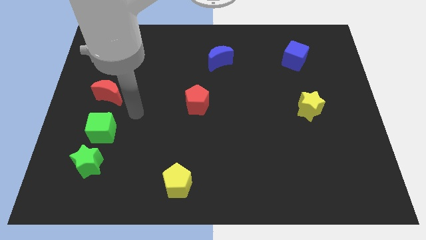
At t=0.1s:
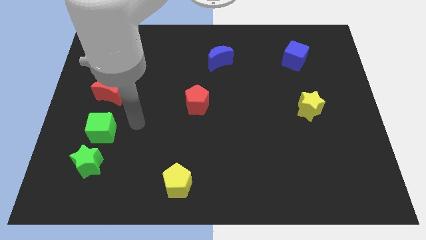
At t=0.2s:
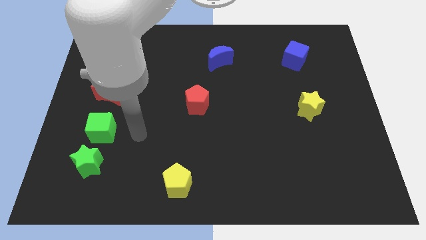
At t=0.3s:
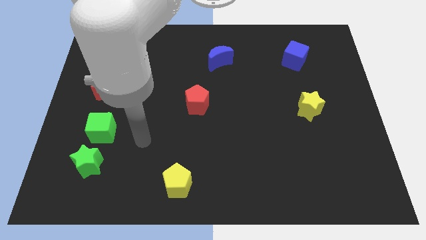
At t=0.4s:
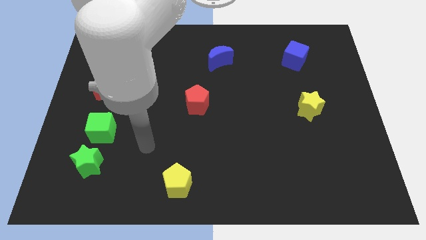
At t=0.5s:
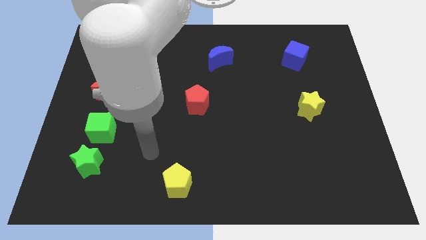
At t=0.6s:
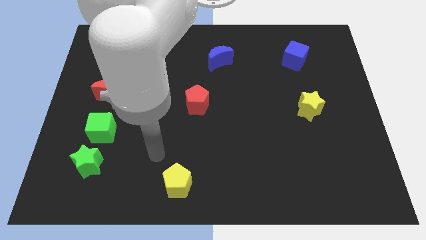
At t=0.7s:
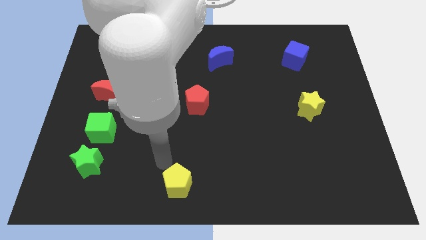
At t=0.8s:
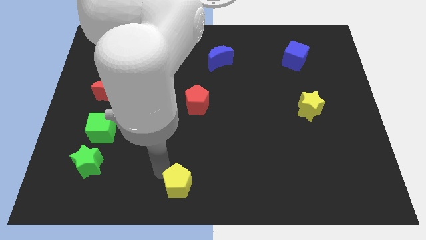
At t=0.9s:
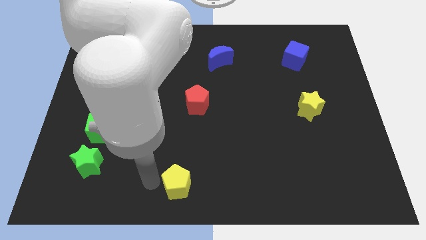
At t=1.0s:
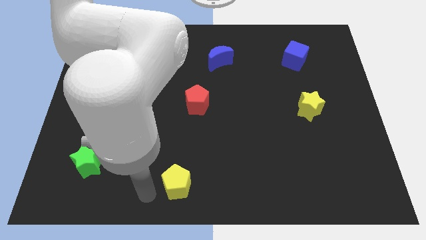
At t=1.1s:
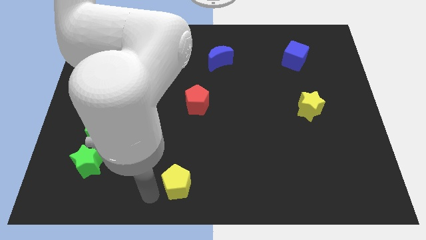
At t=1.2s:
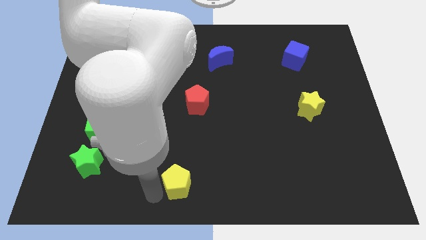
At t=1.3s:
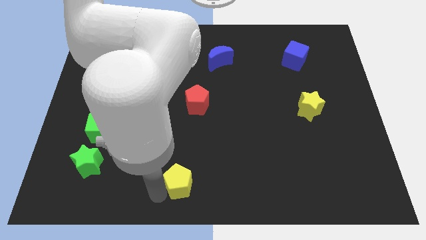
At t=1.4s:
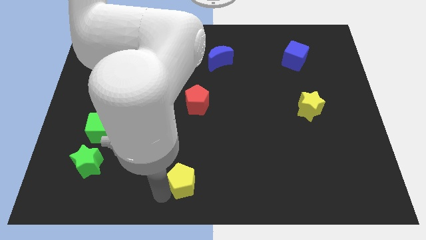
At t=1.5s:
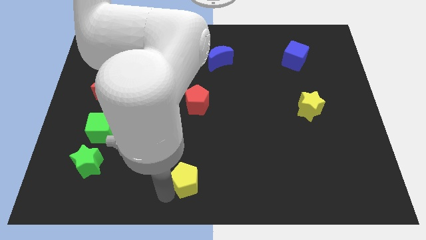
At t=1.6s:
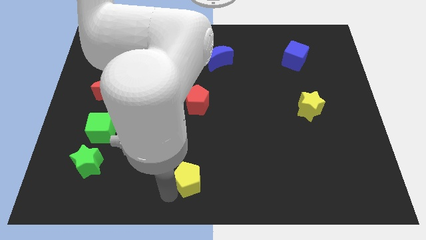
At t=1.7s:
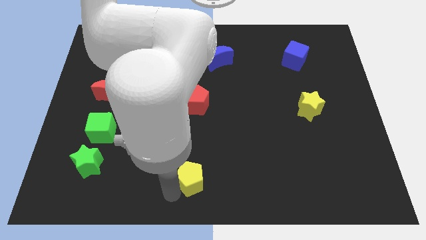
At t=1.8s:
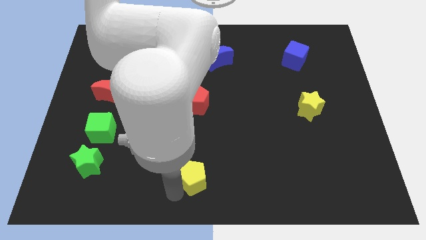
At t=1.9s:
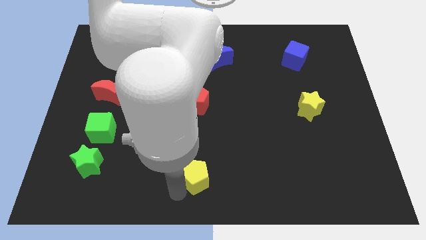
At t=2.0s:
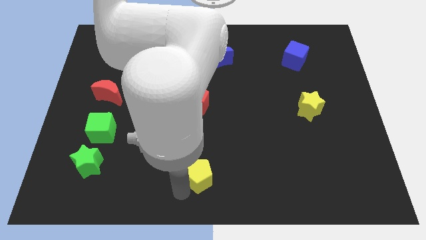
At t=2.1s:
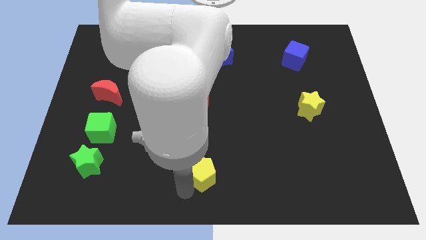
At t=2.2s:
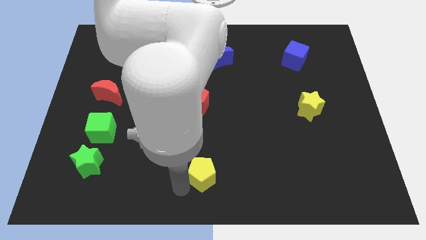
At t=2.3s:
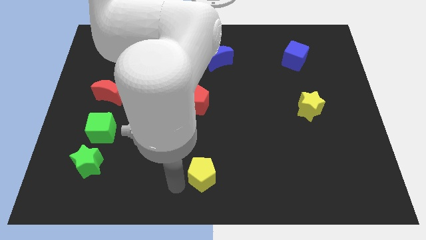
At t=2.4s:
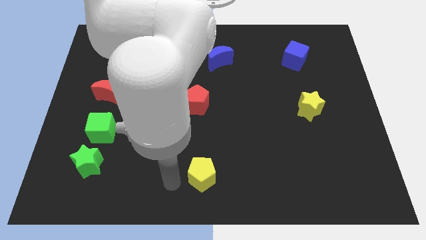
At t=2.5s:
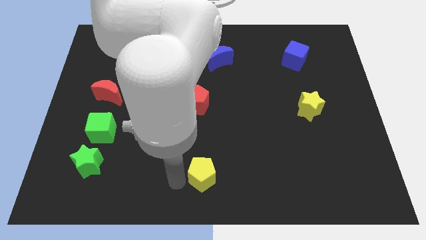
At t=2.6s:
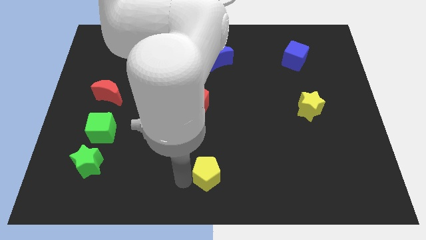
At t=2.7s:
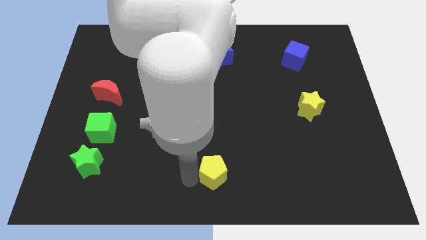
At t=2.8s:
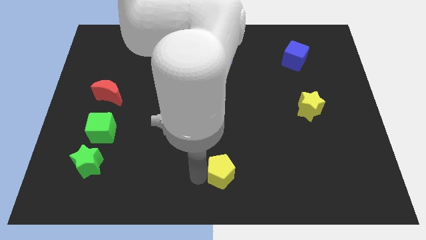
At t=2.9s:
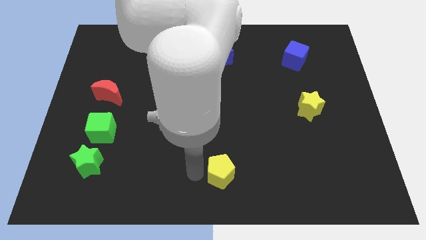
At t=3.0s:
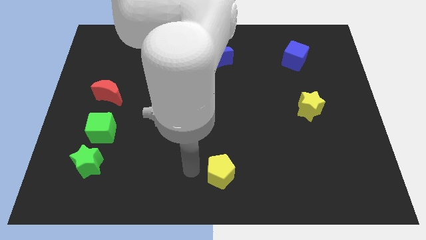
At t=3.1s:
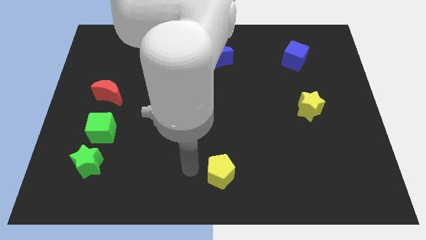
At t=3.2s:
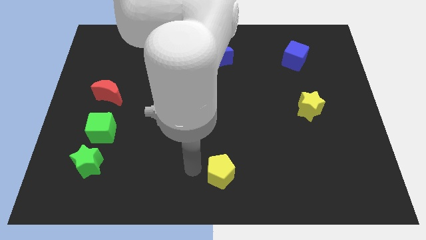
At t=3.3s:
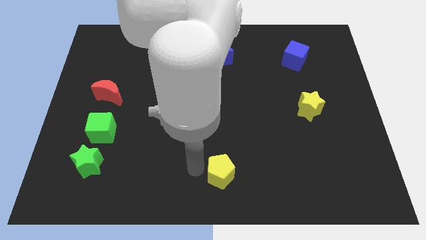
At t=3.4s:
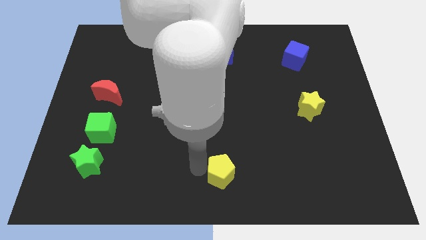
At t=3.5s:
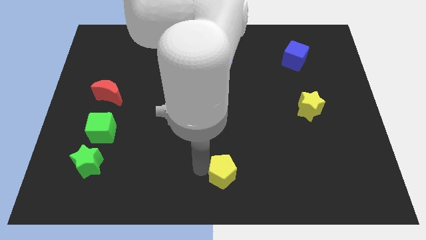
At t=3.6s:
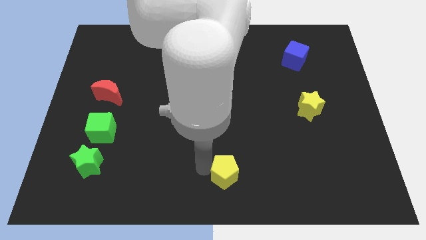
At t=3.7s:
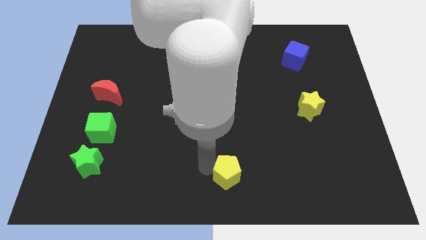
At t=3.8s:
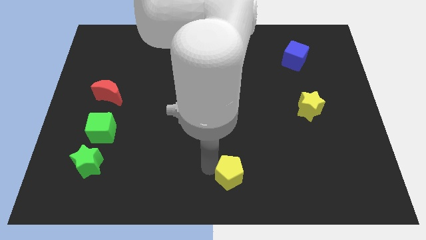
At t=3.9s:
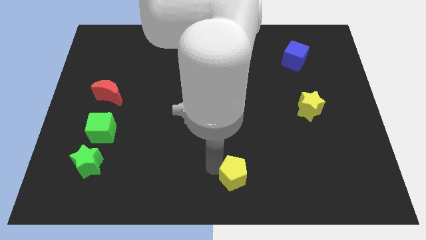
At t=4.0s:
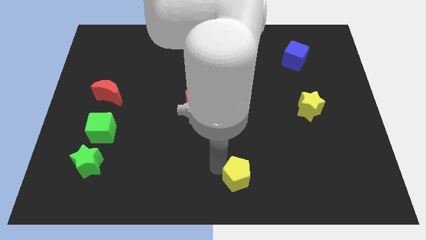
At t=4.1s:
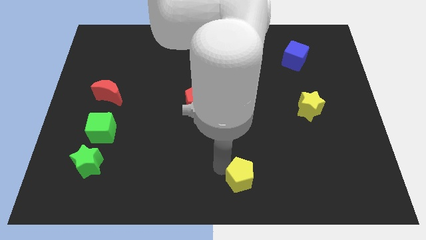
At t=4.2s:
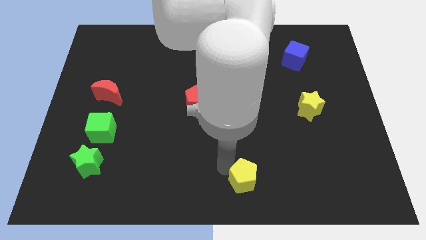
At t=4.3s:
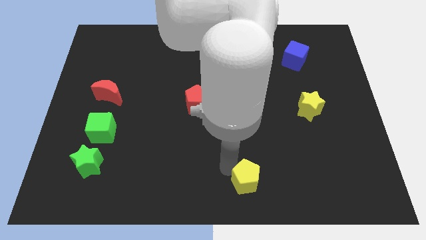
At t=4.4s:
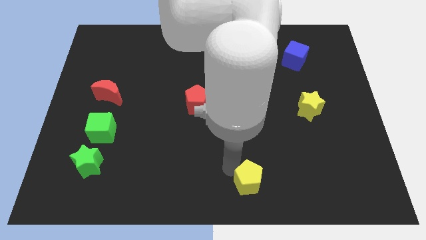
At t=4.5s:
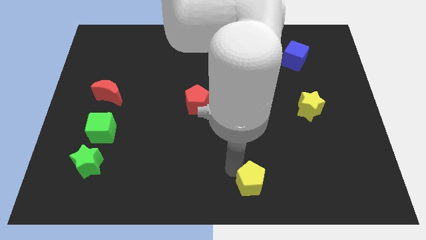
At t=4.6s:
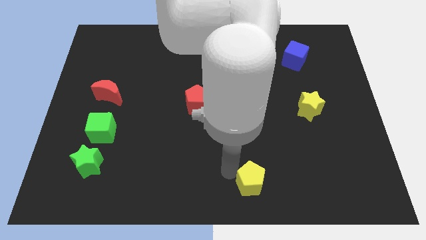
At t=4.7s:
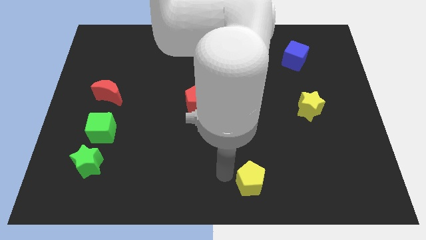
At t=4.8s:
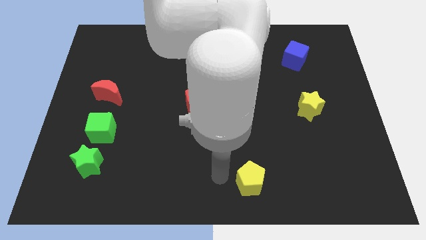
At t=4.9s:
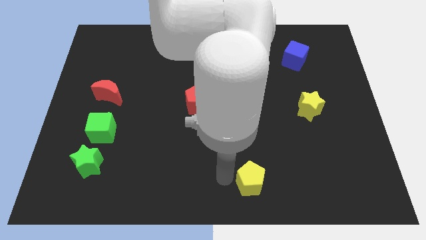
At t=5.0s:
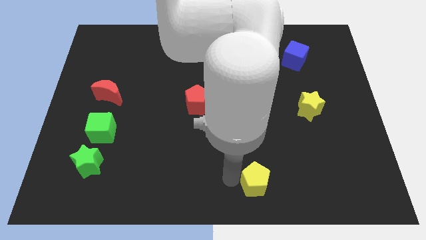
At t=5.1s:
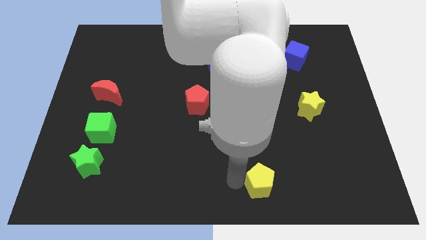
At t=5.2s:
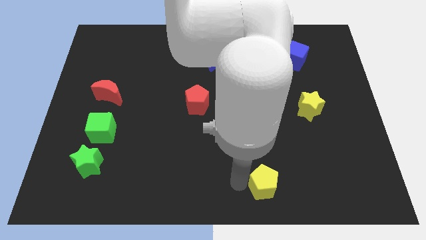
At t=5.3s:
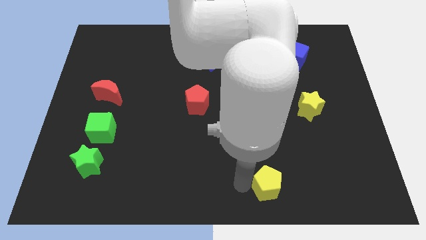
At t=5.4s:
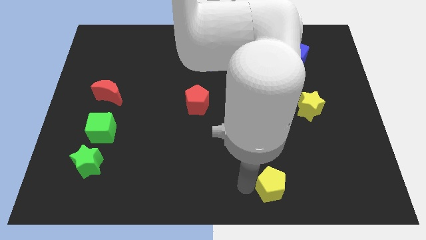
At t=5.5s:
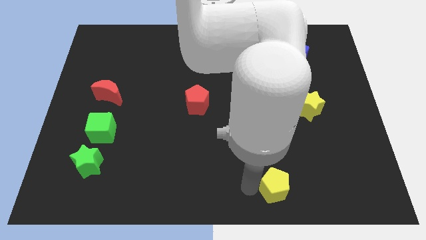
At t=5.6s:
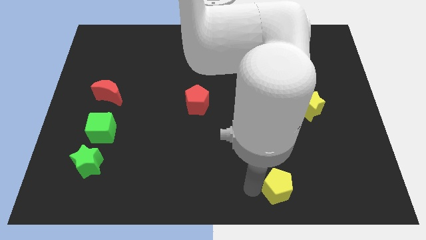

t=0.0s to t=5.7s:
move the yellow pentagon right

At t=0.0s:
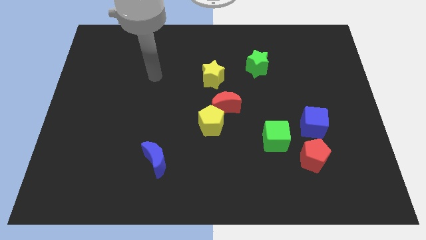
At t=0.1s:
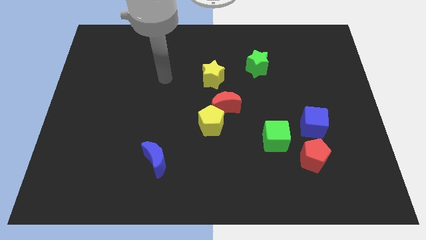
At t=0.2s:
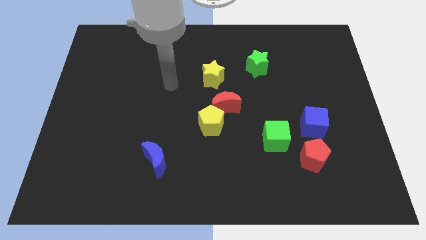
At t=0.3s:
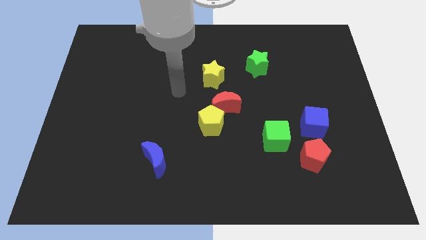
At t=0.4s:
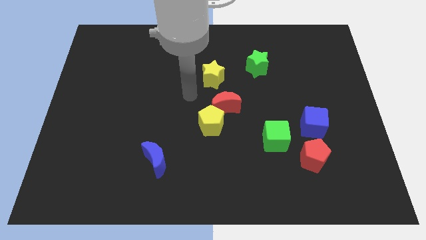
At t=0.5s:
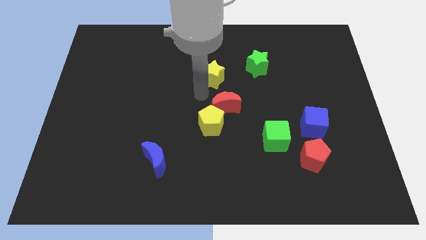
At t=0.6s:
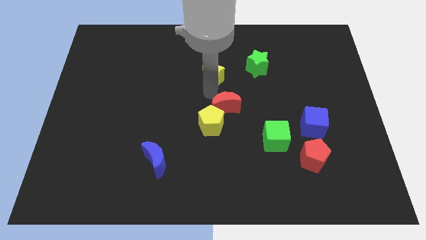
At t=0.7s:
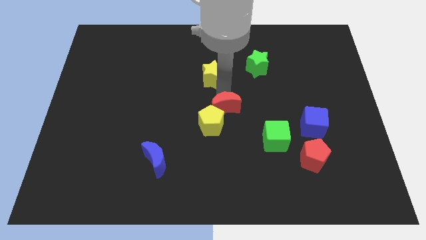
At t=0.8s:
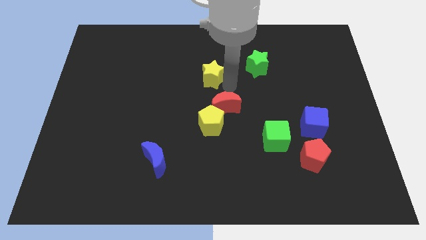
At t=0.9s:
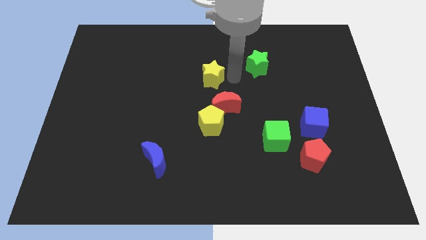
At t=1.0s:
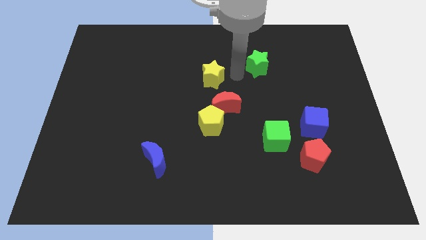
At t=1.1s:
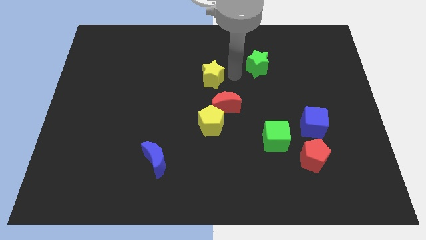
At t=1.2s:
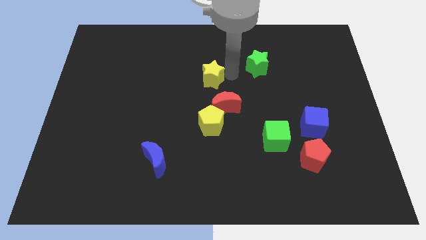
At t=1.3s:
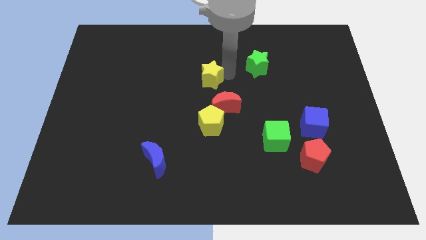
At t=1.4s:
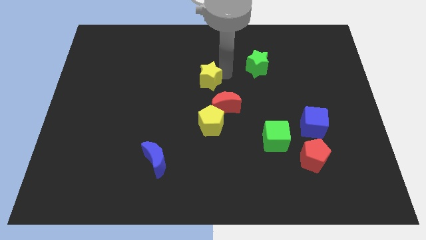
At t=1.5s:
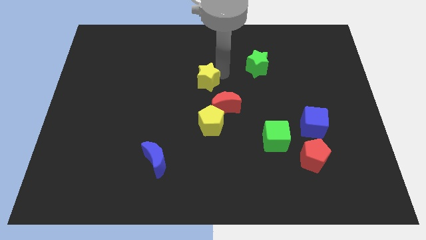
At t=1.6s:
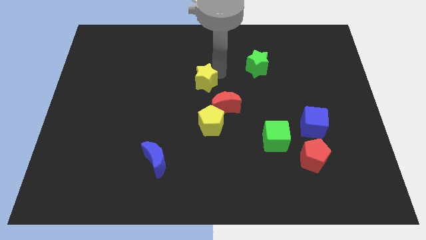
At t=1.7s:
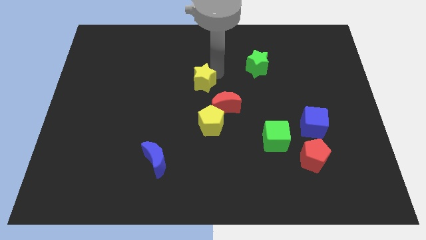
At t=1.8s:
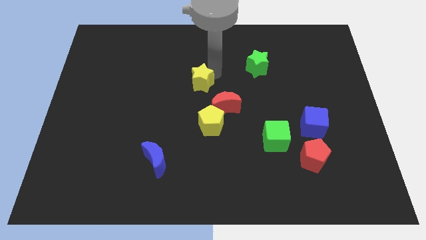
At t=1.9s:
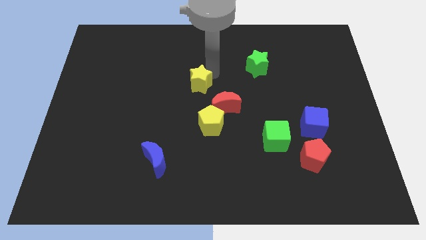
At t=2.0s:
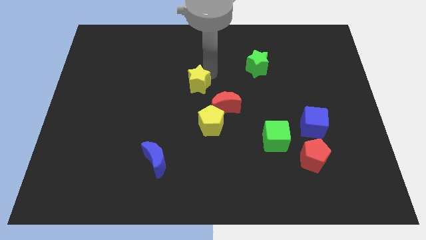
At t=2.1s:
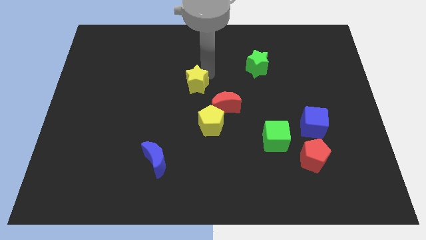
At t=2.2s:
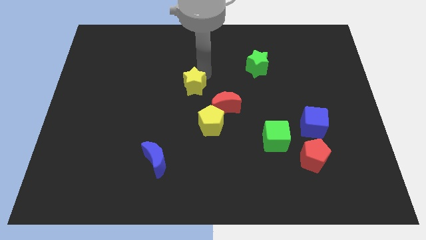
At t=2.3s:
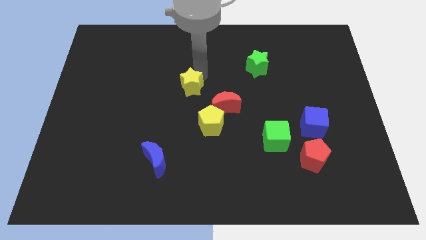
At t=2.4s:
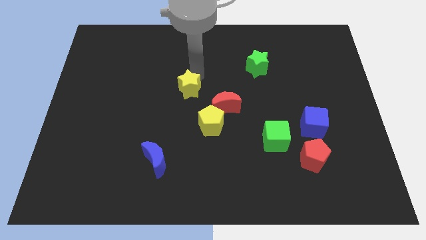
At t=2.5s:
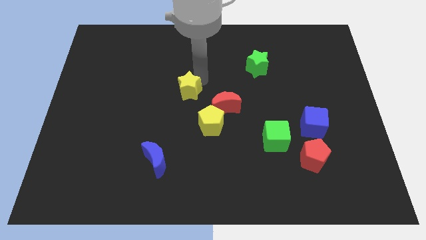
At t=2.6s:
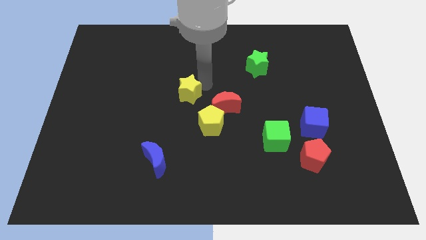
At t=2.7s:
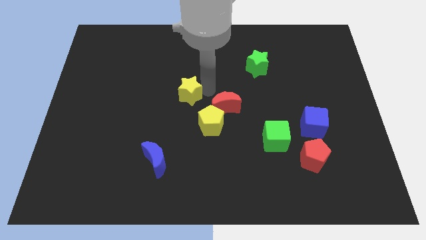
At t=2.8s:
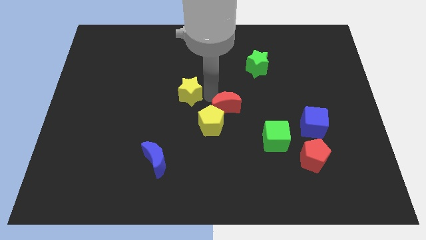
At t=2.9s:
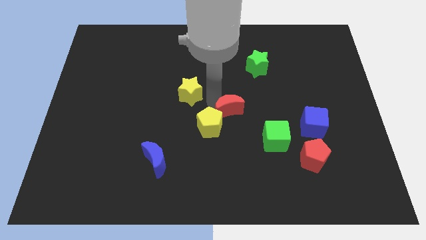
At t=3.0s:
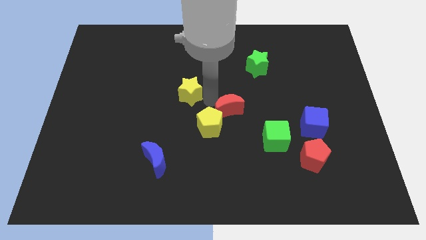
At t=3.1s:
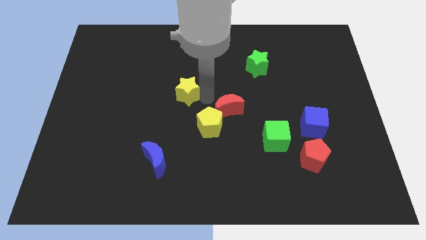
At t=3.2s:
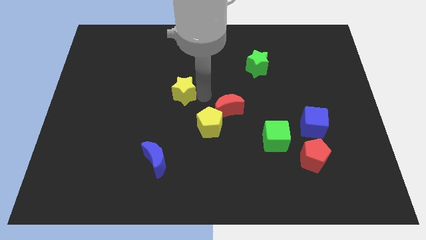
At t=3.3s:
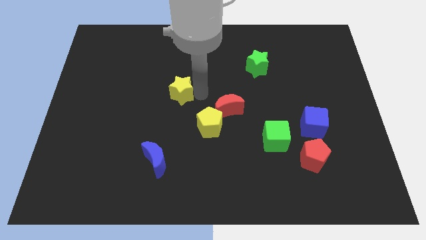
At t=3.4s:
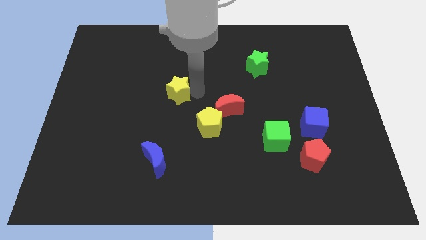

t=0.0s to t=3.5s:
slightly slide the yellow star to the left
